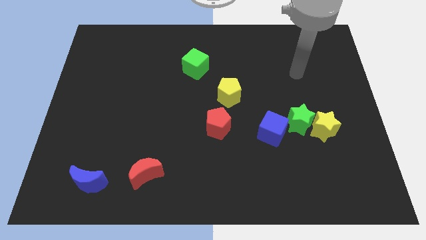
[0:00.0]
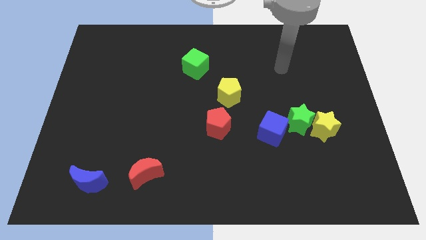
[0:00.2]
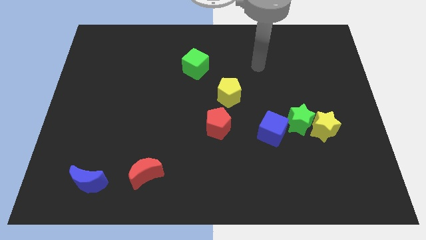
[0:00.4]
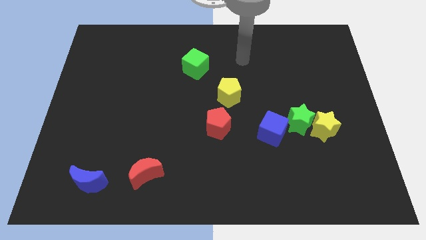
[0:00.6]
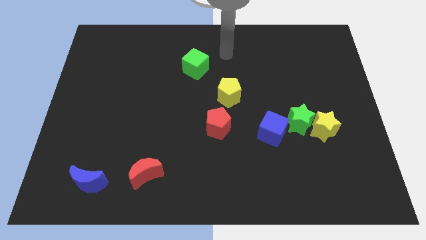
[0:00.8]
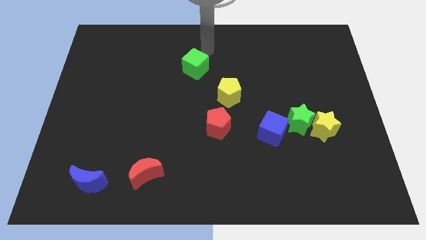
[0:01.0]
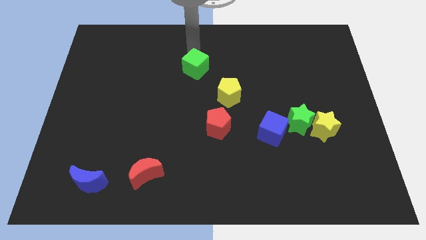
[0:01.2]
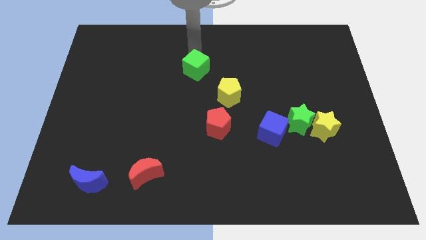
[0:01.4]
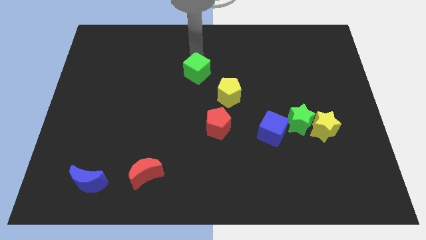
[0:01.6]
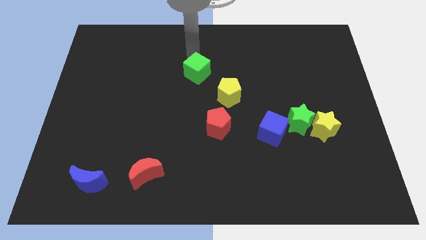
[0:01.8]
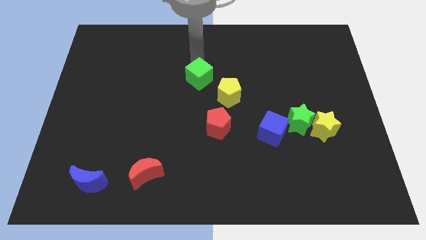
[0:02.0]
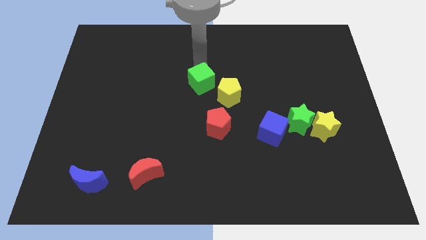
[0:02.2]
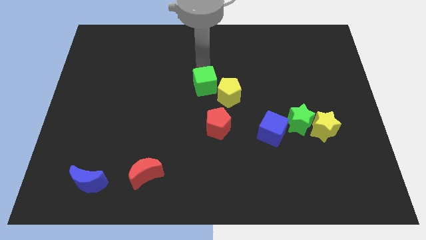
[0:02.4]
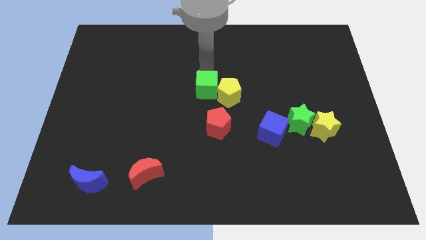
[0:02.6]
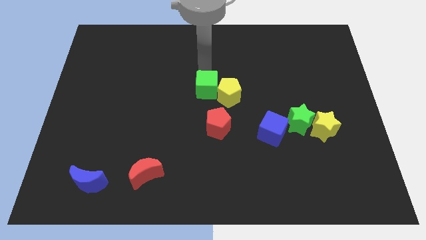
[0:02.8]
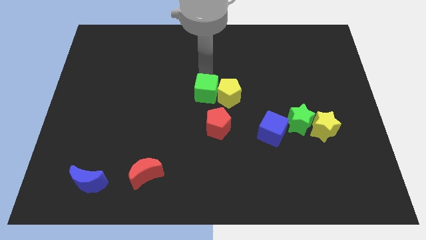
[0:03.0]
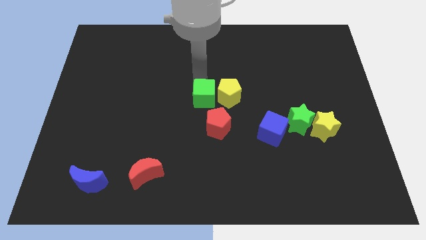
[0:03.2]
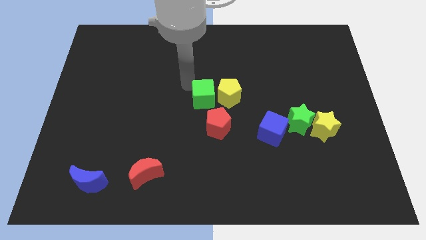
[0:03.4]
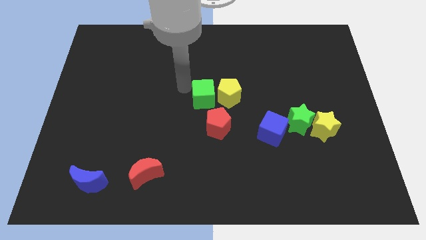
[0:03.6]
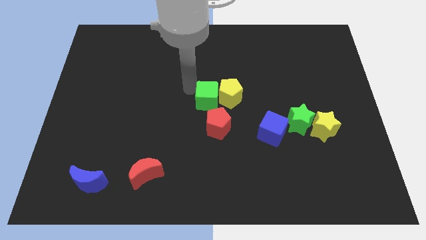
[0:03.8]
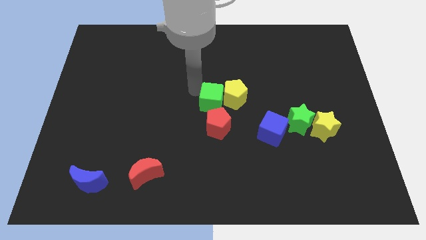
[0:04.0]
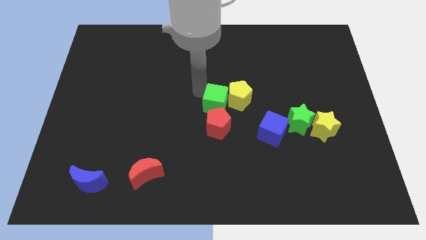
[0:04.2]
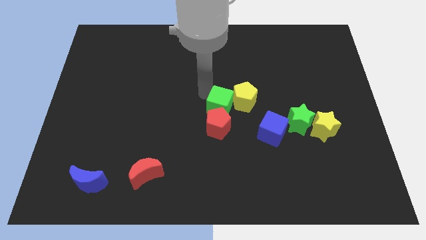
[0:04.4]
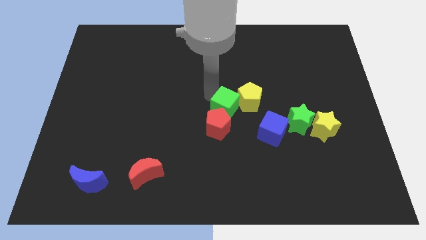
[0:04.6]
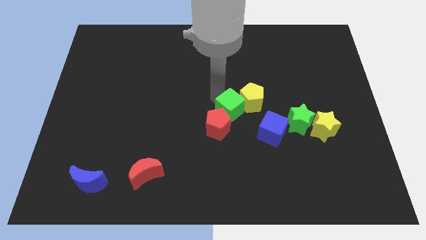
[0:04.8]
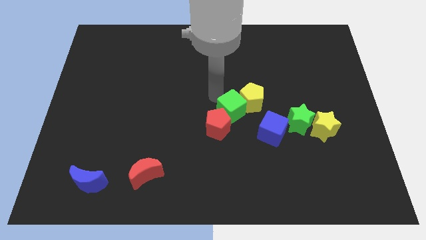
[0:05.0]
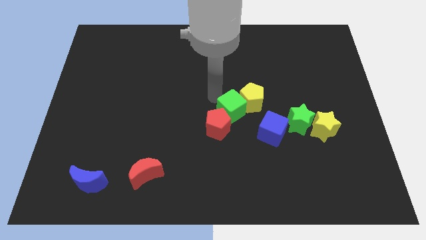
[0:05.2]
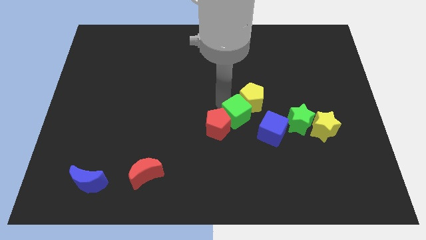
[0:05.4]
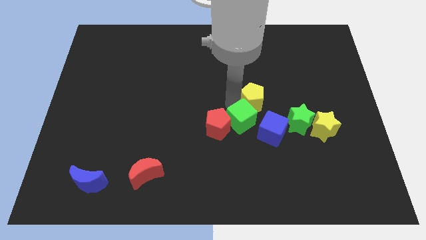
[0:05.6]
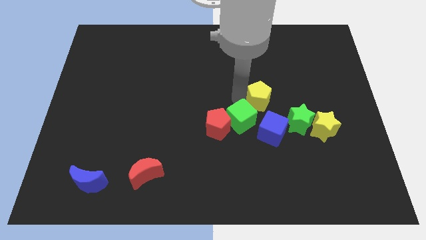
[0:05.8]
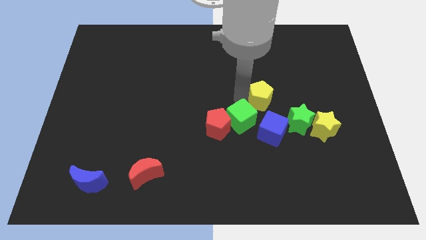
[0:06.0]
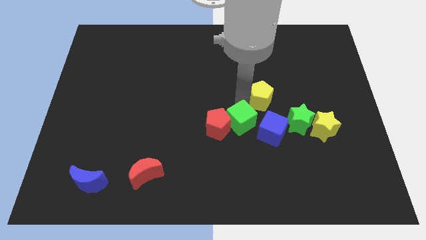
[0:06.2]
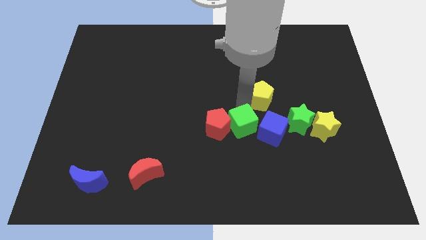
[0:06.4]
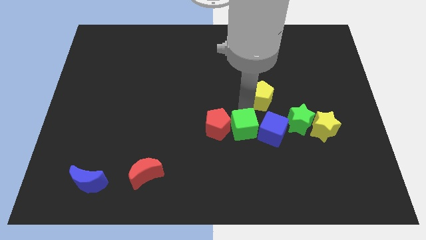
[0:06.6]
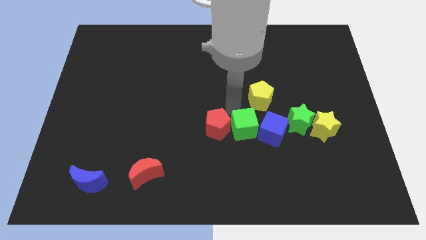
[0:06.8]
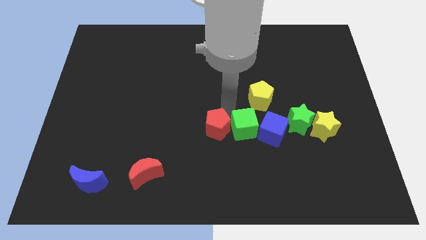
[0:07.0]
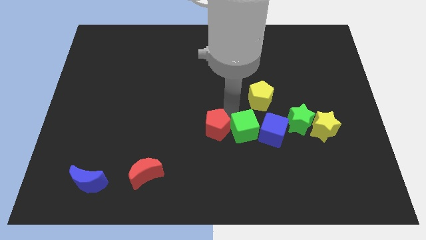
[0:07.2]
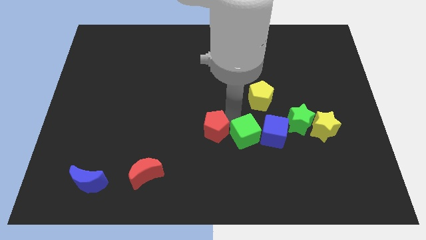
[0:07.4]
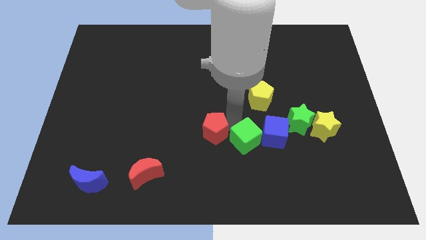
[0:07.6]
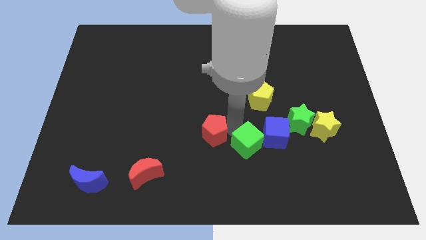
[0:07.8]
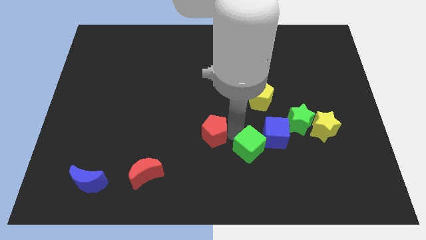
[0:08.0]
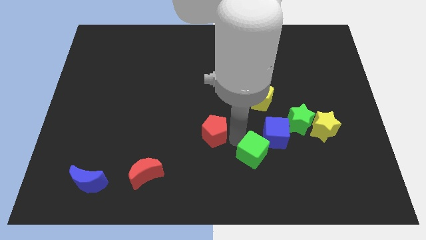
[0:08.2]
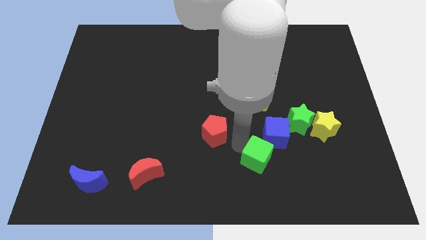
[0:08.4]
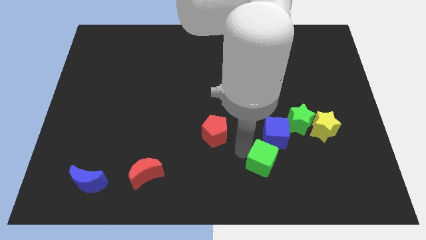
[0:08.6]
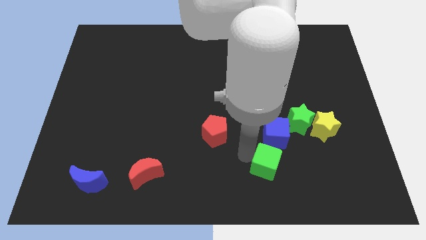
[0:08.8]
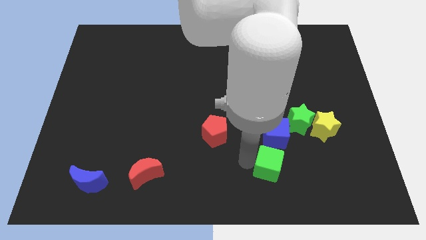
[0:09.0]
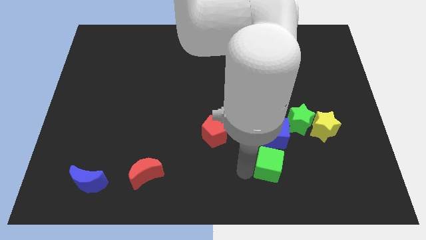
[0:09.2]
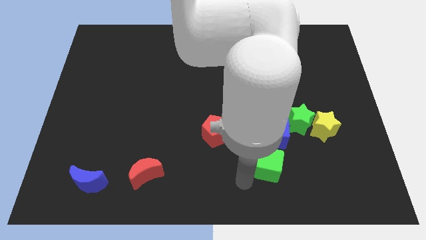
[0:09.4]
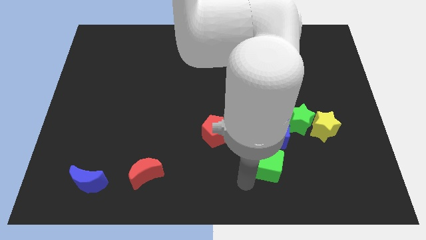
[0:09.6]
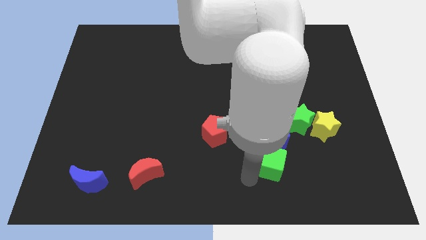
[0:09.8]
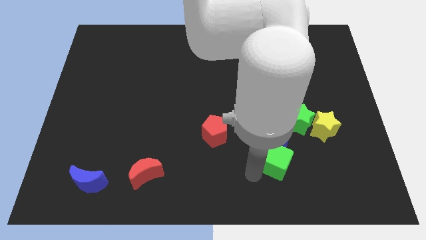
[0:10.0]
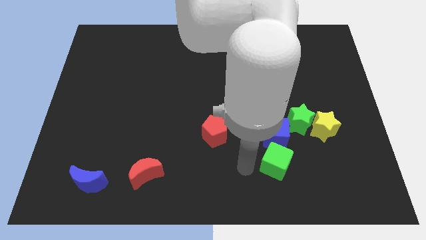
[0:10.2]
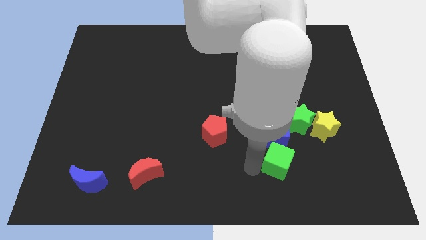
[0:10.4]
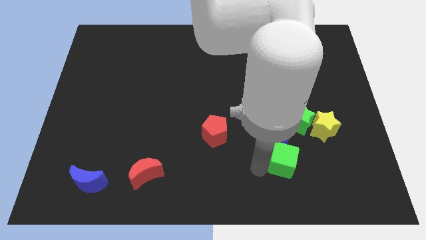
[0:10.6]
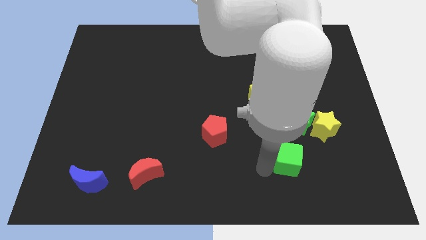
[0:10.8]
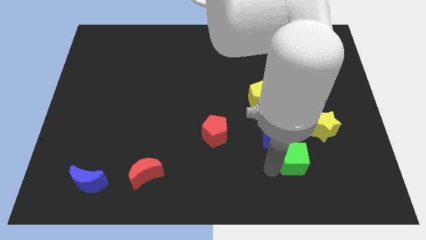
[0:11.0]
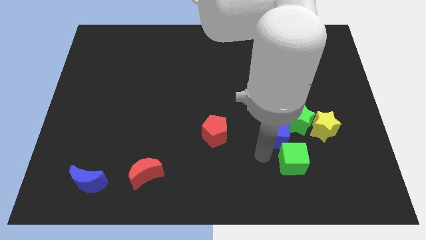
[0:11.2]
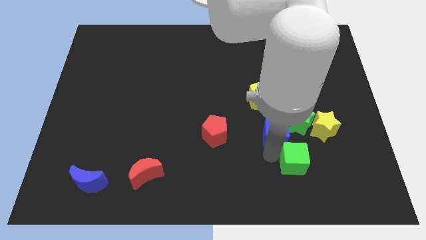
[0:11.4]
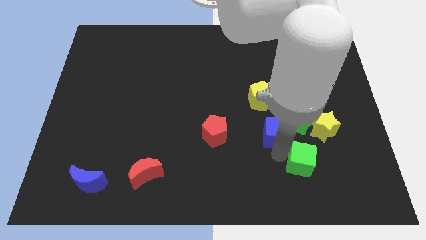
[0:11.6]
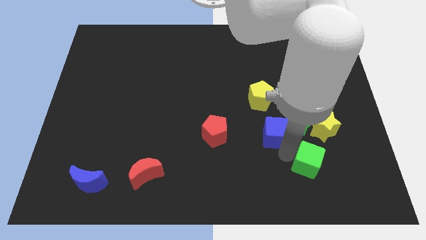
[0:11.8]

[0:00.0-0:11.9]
slide the green cube below the yellow star
